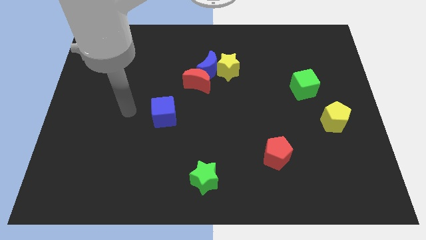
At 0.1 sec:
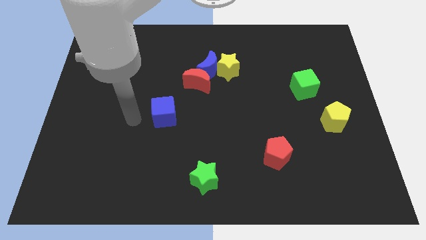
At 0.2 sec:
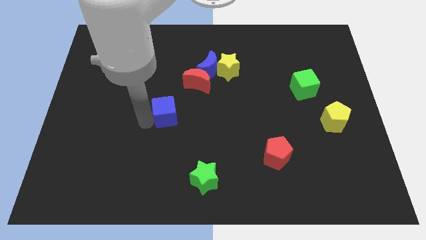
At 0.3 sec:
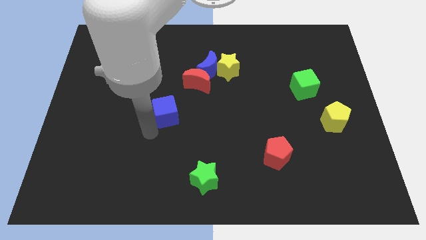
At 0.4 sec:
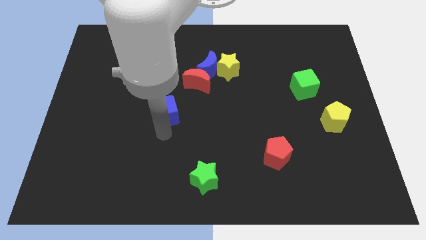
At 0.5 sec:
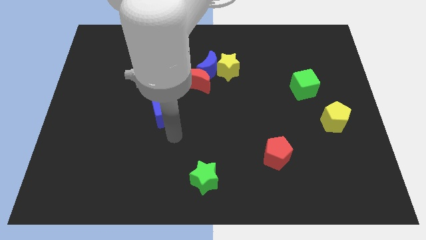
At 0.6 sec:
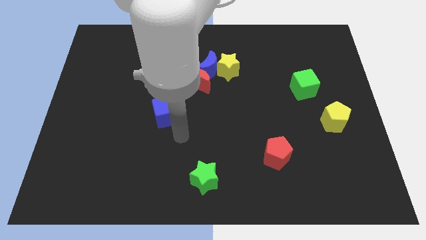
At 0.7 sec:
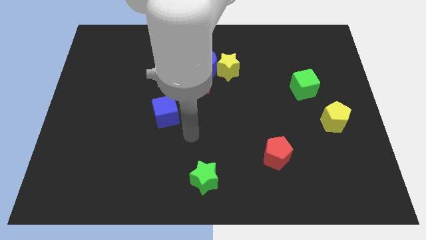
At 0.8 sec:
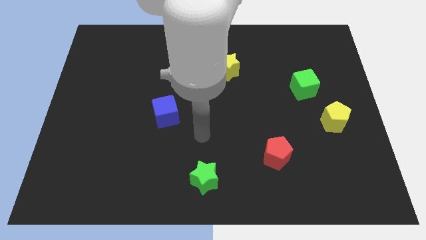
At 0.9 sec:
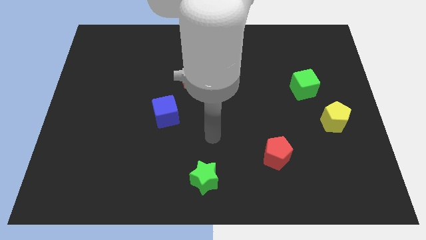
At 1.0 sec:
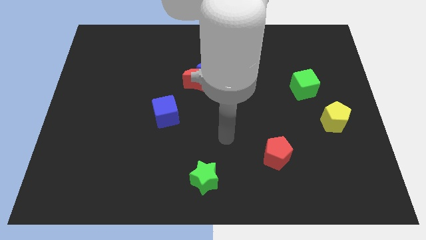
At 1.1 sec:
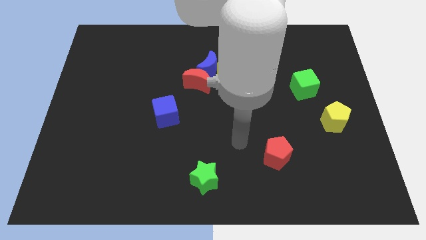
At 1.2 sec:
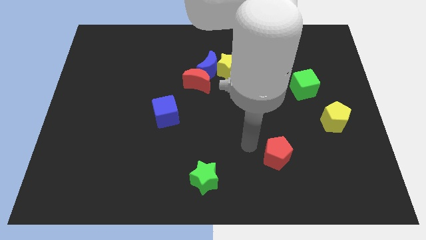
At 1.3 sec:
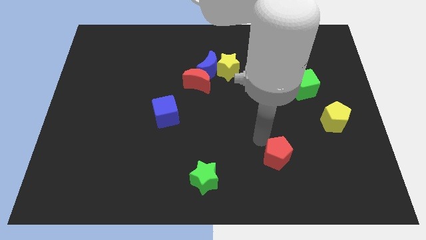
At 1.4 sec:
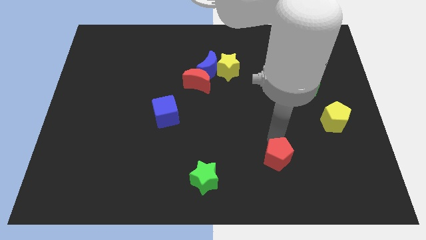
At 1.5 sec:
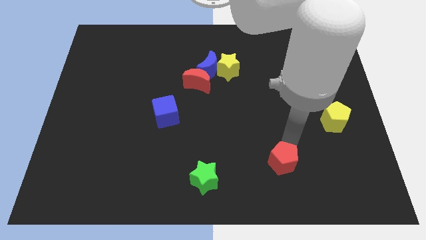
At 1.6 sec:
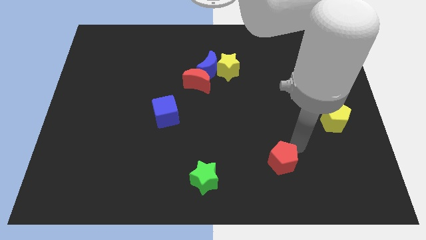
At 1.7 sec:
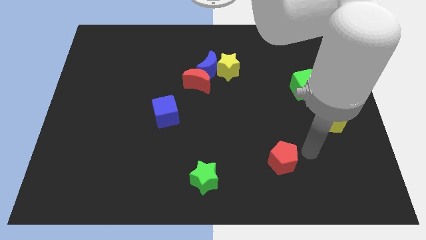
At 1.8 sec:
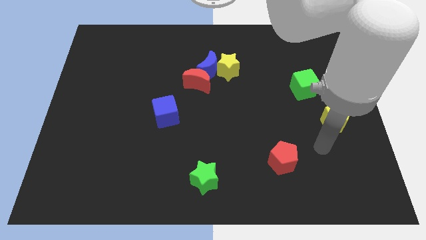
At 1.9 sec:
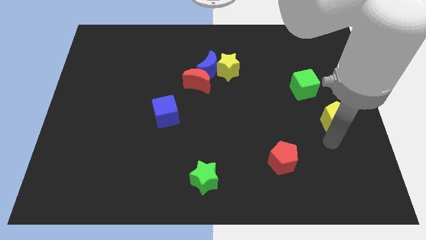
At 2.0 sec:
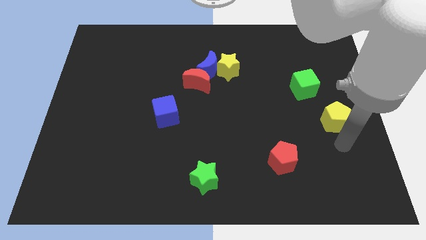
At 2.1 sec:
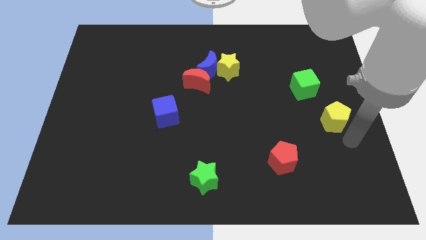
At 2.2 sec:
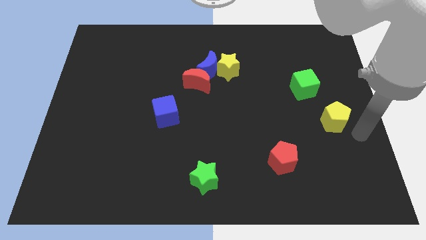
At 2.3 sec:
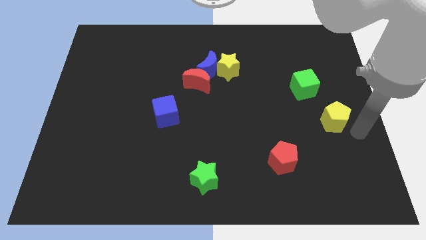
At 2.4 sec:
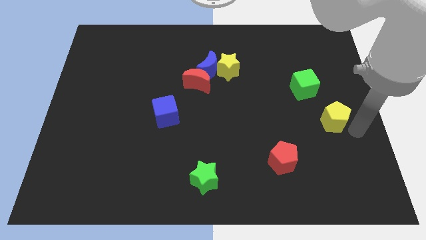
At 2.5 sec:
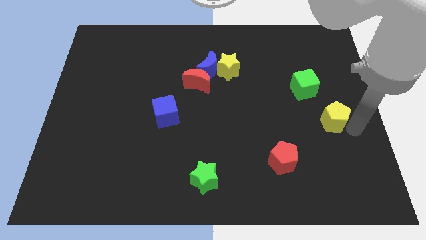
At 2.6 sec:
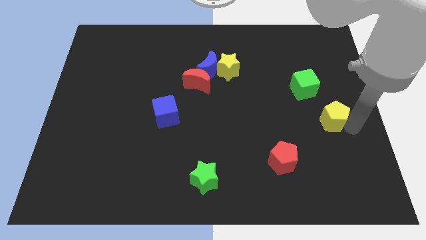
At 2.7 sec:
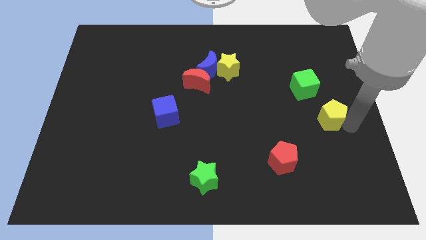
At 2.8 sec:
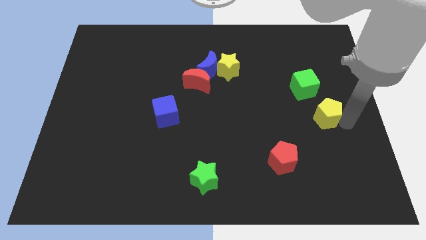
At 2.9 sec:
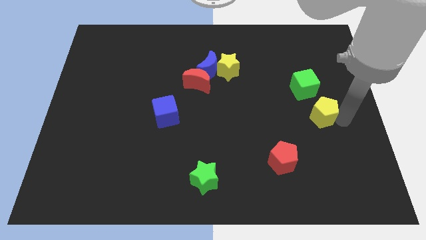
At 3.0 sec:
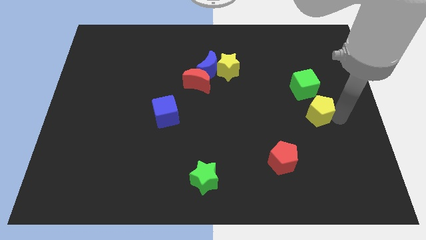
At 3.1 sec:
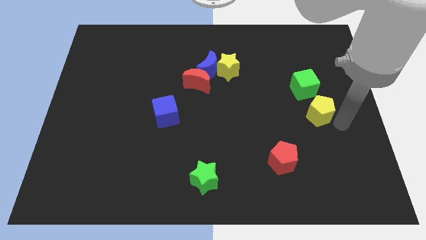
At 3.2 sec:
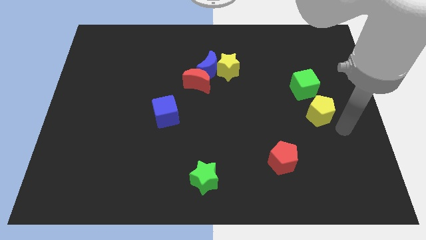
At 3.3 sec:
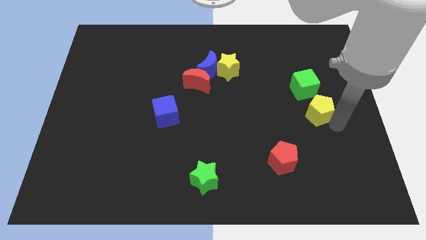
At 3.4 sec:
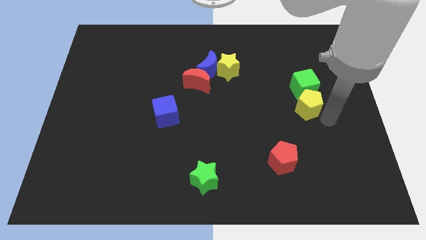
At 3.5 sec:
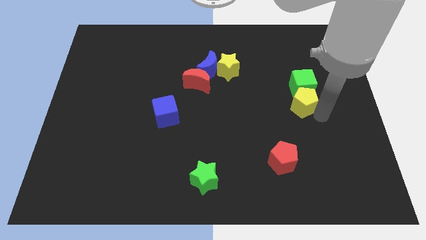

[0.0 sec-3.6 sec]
slide the yellow pentagon diagonally upwards and to the left a little

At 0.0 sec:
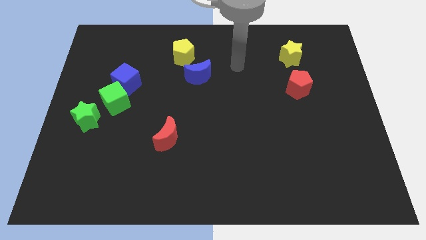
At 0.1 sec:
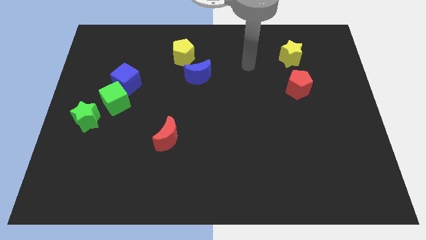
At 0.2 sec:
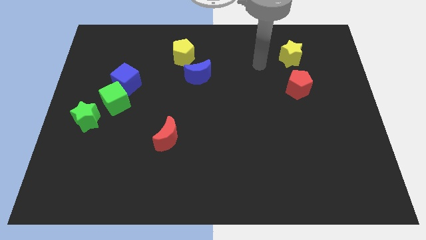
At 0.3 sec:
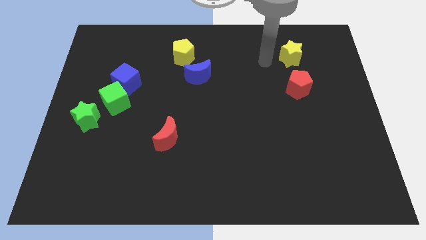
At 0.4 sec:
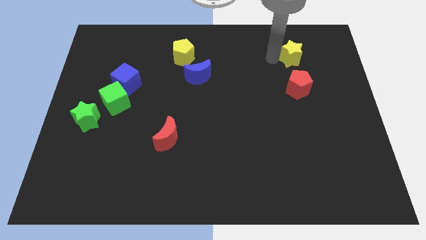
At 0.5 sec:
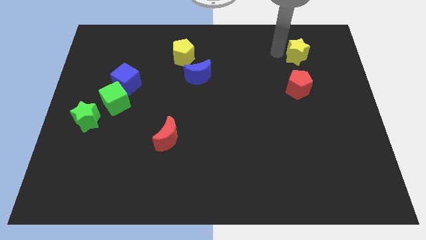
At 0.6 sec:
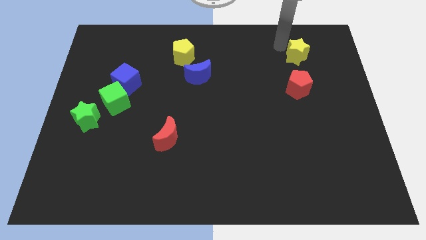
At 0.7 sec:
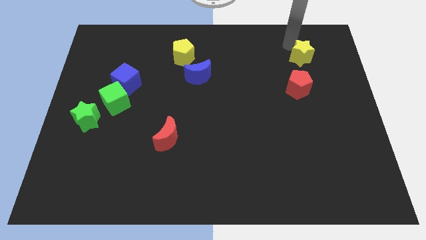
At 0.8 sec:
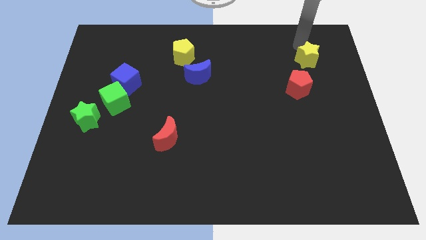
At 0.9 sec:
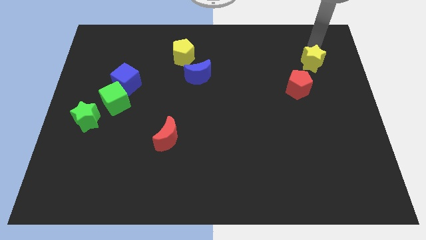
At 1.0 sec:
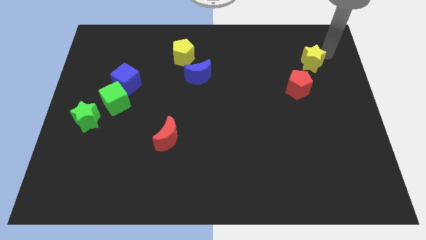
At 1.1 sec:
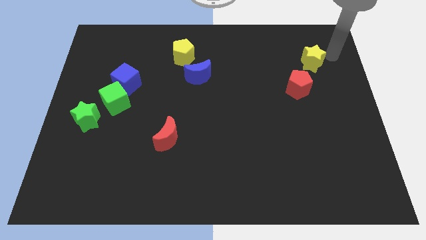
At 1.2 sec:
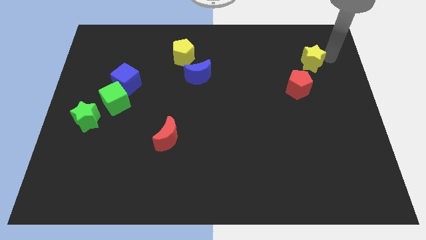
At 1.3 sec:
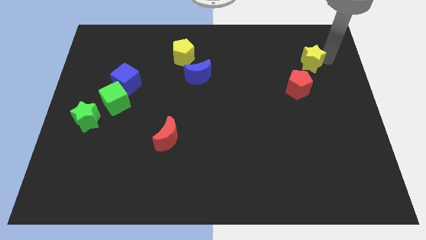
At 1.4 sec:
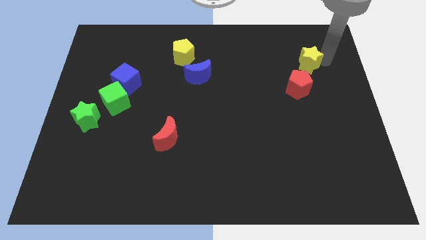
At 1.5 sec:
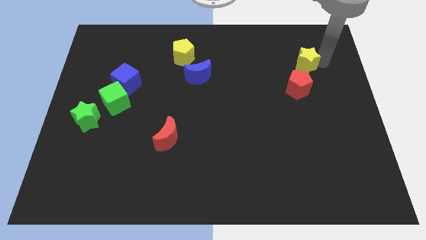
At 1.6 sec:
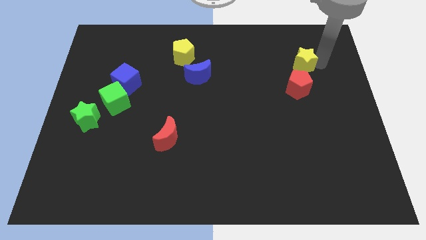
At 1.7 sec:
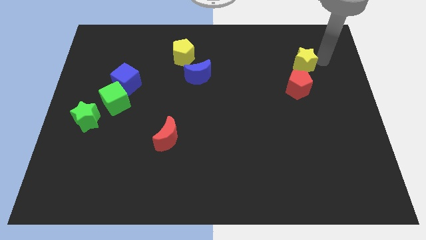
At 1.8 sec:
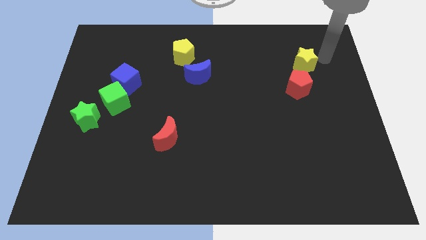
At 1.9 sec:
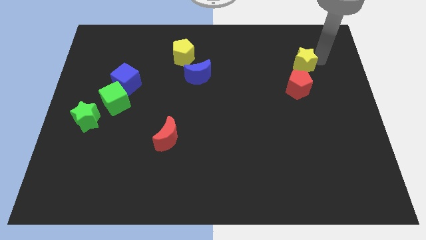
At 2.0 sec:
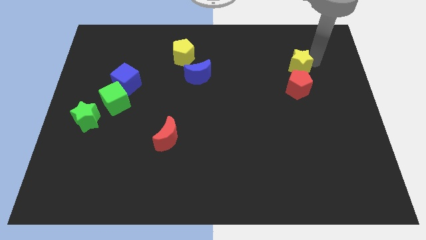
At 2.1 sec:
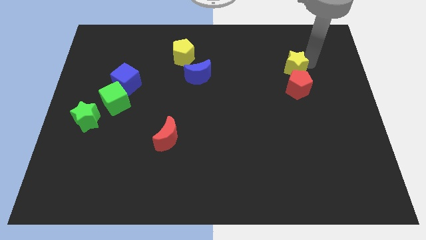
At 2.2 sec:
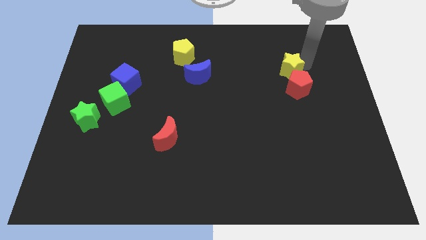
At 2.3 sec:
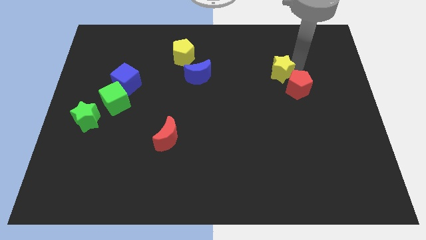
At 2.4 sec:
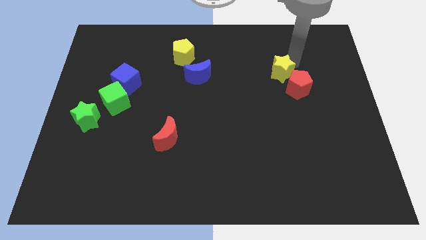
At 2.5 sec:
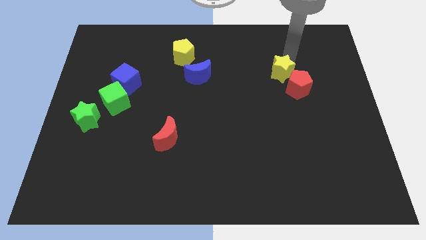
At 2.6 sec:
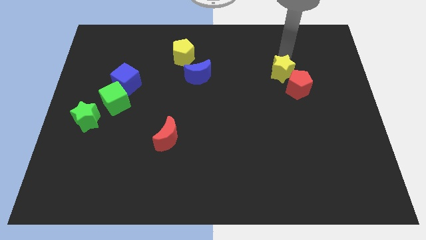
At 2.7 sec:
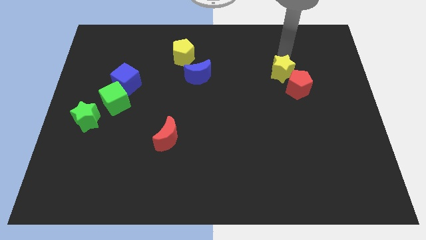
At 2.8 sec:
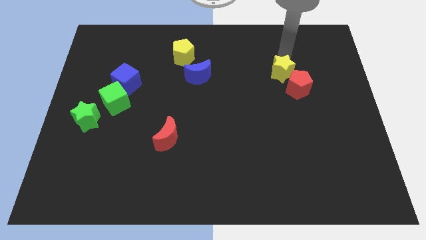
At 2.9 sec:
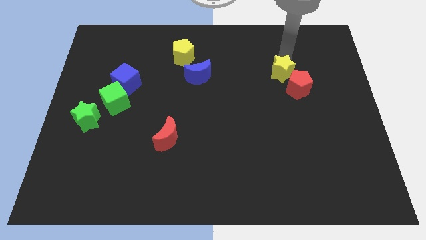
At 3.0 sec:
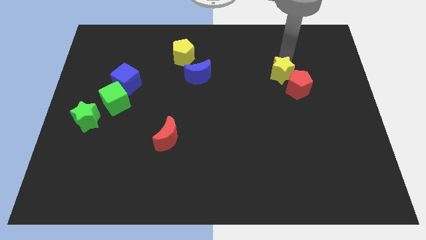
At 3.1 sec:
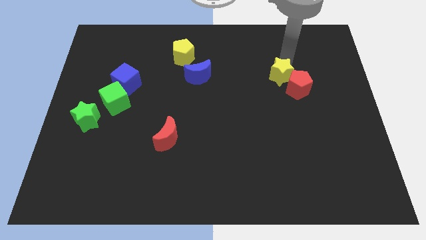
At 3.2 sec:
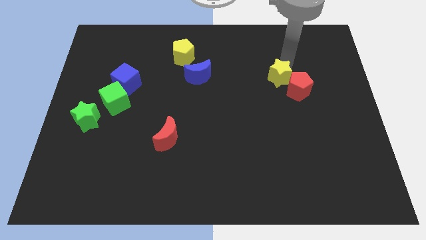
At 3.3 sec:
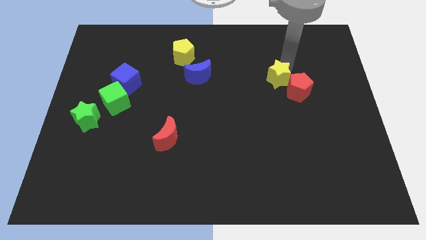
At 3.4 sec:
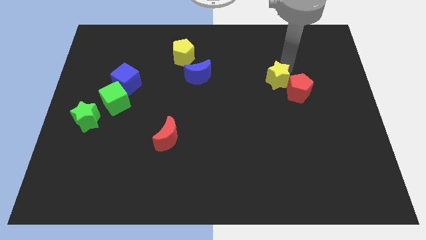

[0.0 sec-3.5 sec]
slightly push the yellow star down

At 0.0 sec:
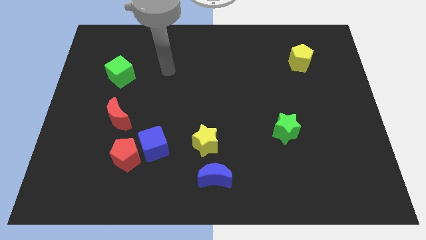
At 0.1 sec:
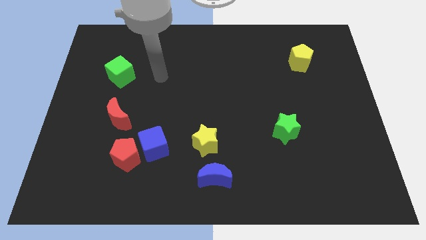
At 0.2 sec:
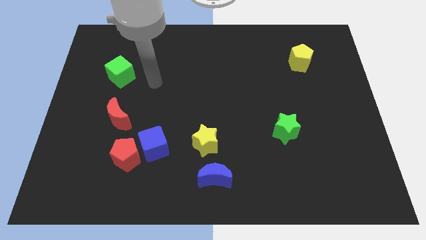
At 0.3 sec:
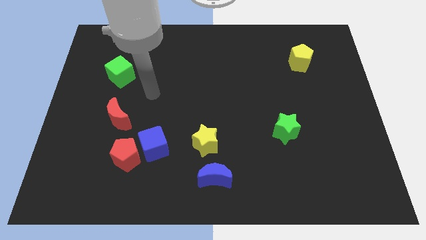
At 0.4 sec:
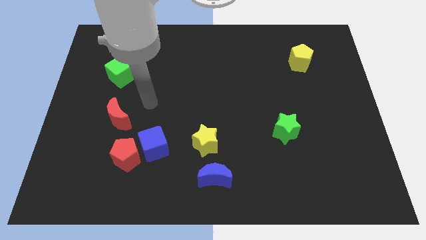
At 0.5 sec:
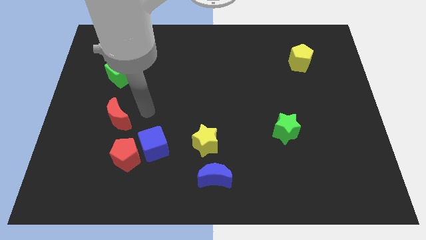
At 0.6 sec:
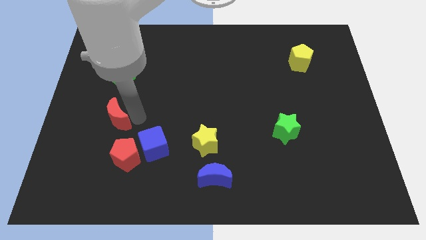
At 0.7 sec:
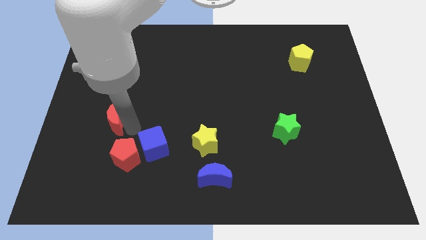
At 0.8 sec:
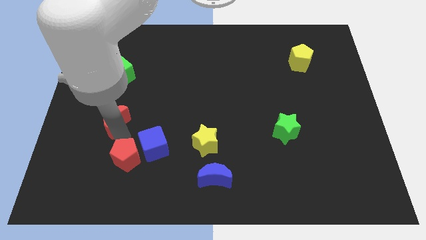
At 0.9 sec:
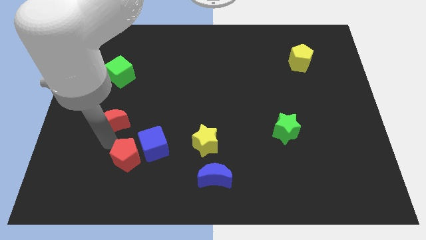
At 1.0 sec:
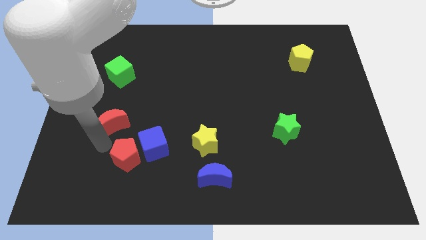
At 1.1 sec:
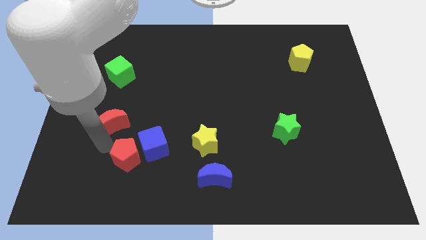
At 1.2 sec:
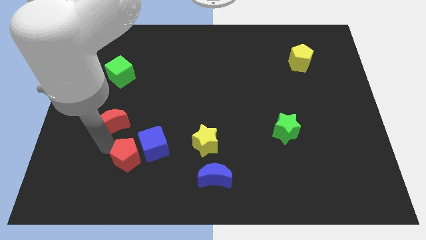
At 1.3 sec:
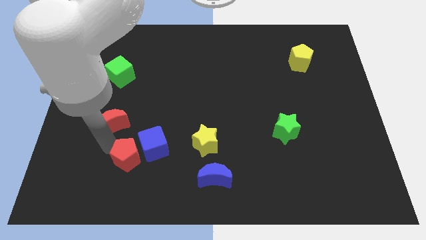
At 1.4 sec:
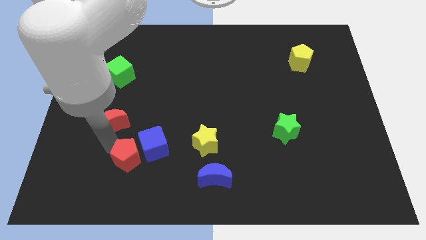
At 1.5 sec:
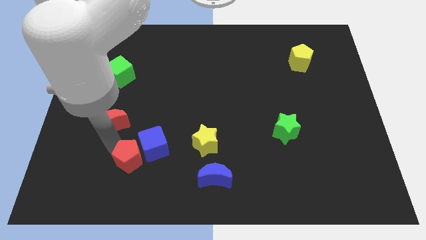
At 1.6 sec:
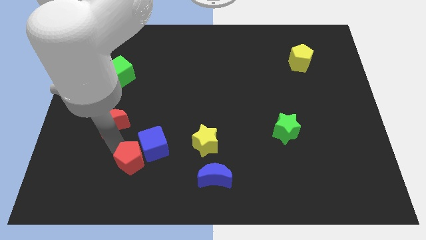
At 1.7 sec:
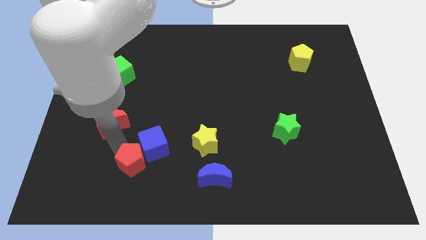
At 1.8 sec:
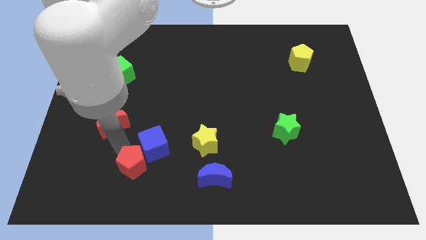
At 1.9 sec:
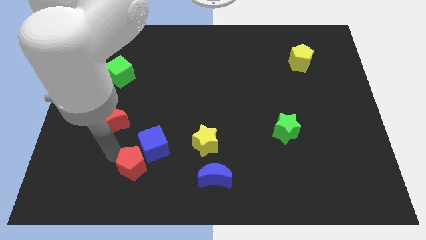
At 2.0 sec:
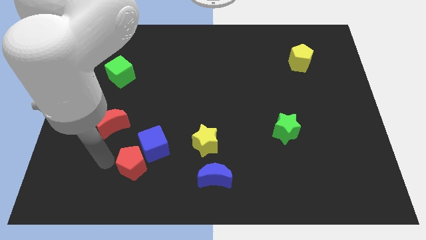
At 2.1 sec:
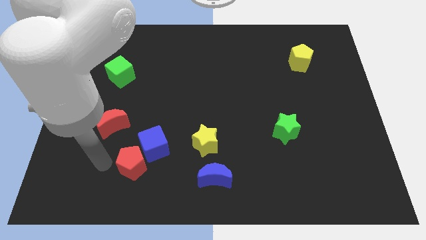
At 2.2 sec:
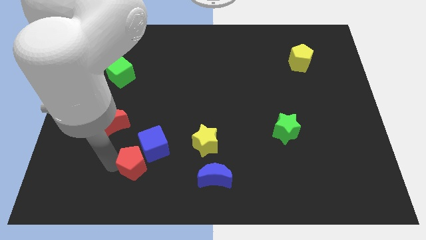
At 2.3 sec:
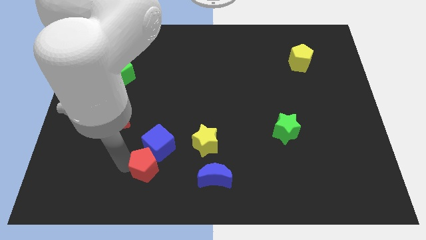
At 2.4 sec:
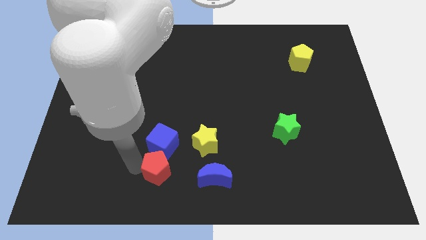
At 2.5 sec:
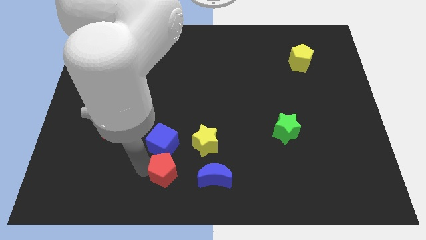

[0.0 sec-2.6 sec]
push the red pentagon right a bit
